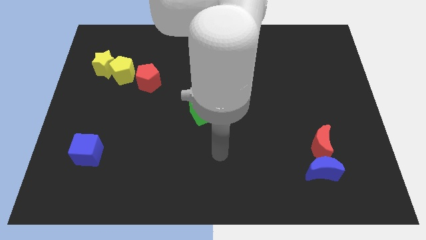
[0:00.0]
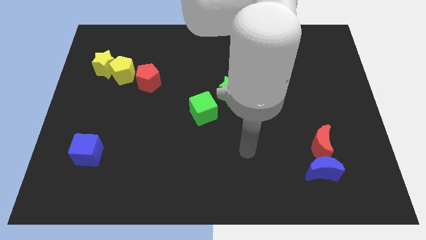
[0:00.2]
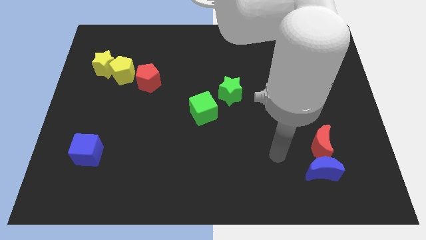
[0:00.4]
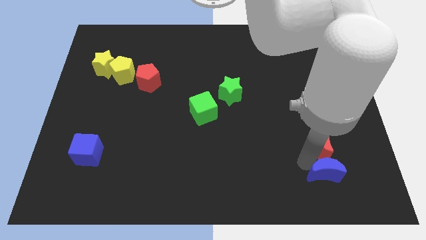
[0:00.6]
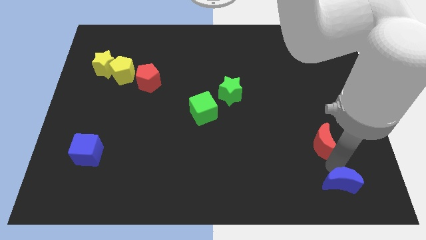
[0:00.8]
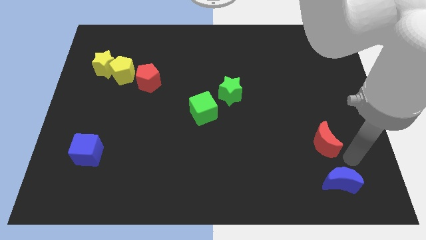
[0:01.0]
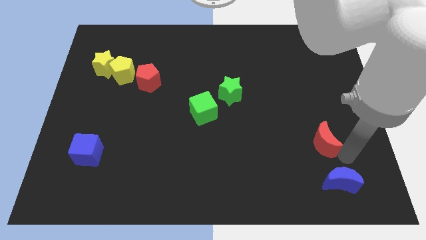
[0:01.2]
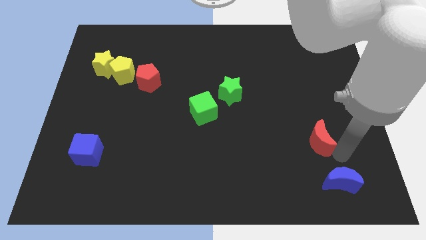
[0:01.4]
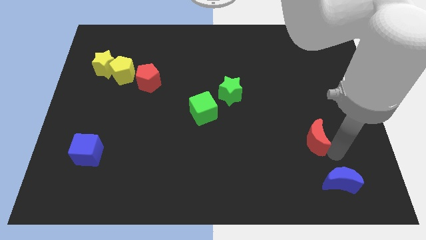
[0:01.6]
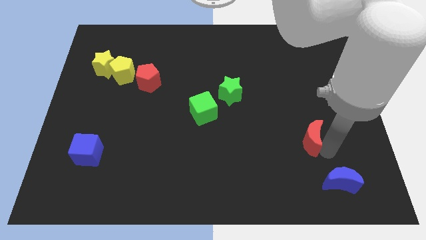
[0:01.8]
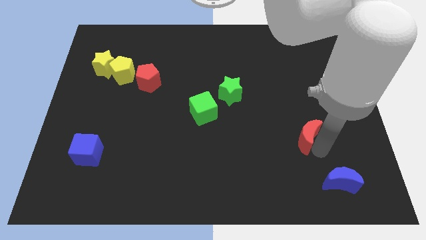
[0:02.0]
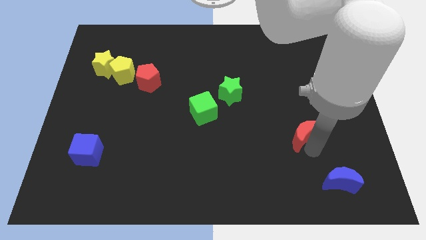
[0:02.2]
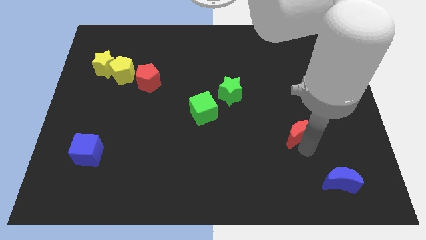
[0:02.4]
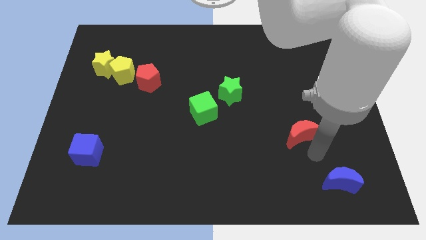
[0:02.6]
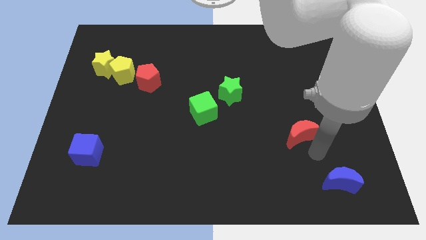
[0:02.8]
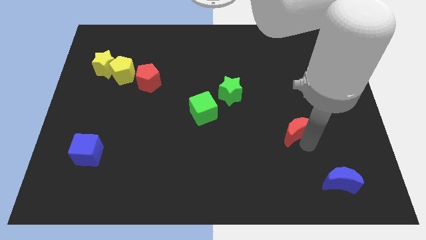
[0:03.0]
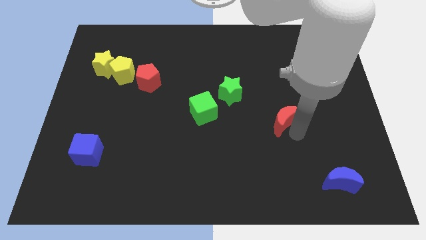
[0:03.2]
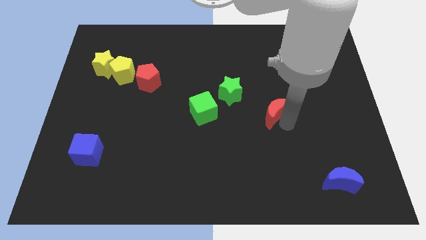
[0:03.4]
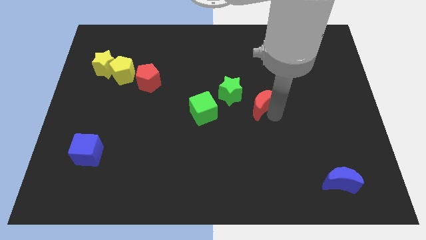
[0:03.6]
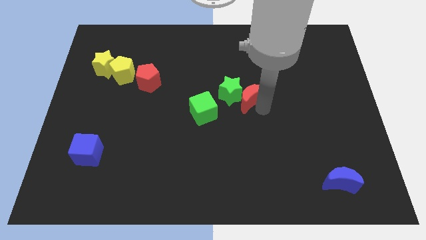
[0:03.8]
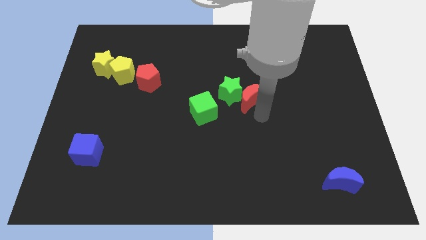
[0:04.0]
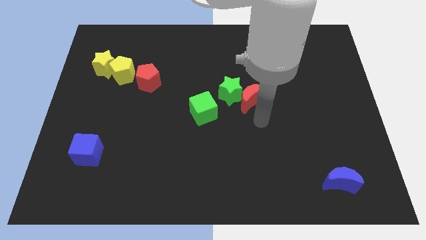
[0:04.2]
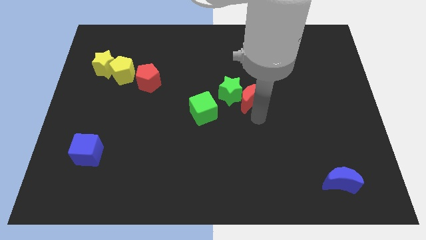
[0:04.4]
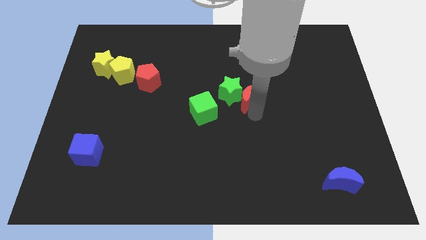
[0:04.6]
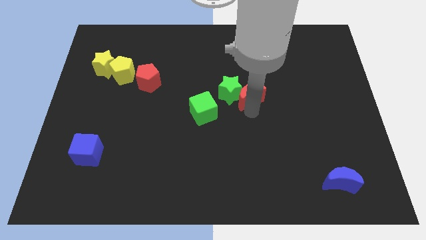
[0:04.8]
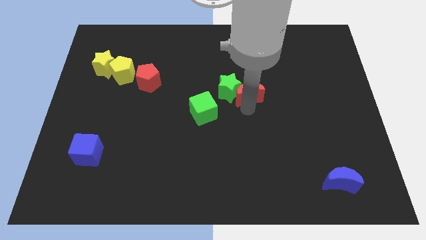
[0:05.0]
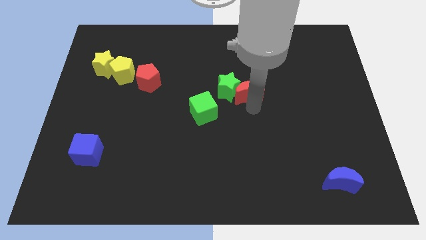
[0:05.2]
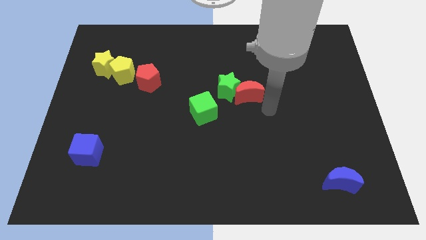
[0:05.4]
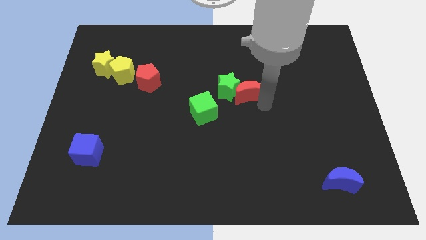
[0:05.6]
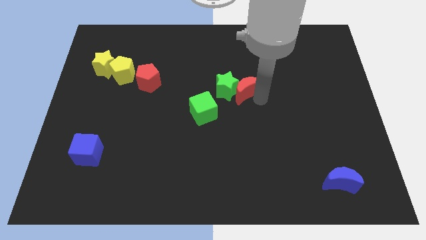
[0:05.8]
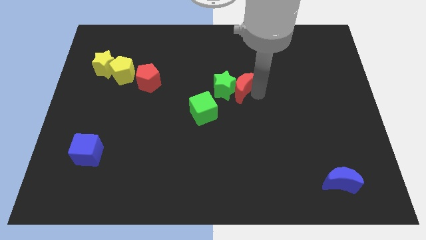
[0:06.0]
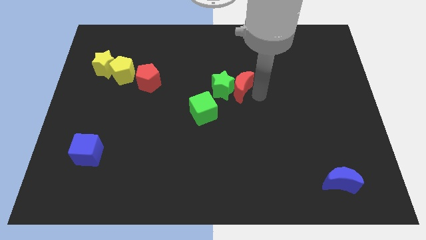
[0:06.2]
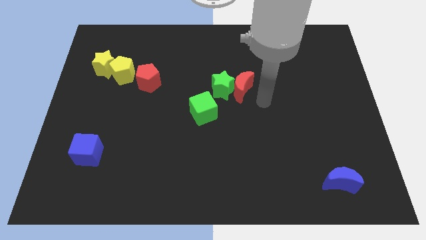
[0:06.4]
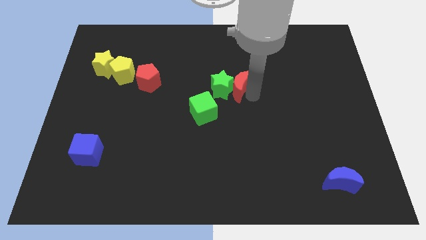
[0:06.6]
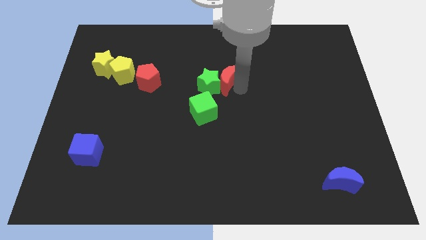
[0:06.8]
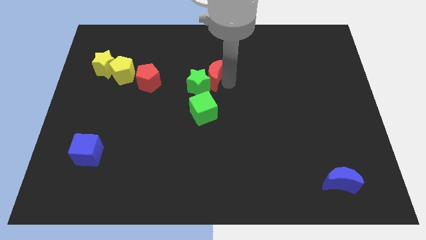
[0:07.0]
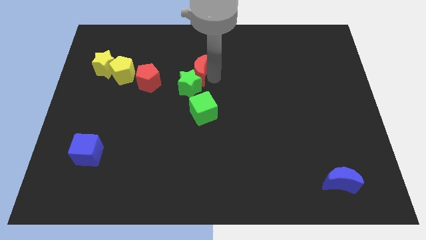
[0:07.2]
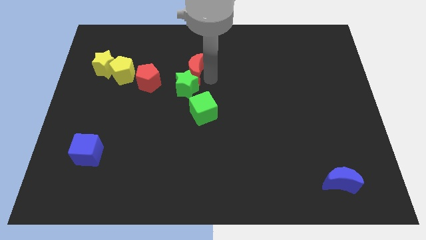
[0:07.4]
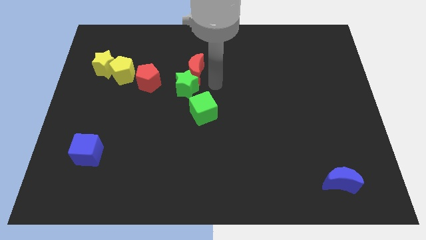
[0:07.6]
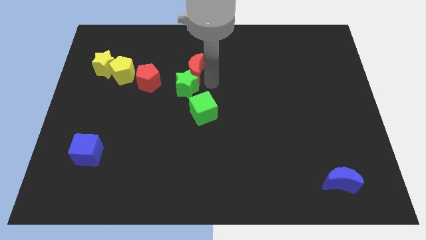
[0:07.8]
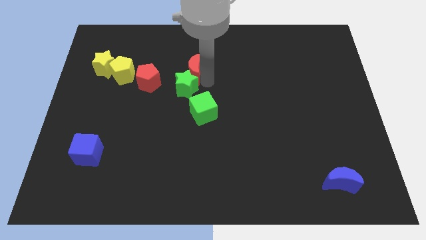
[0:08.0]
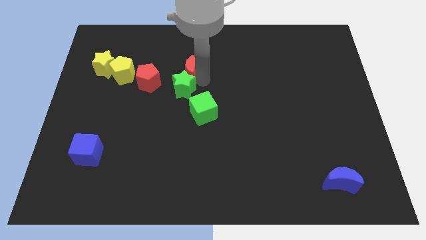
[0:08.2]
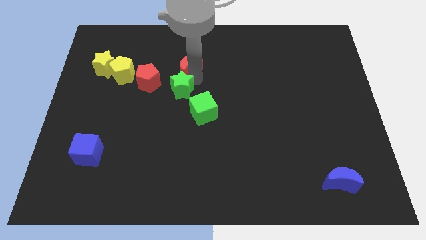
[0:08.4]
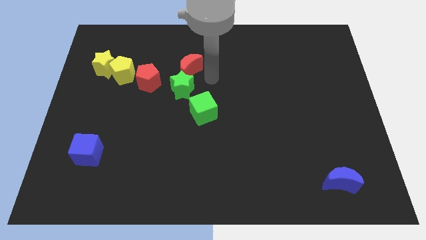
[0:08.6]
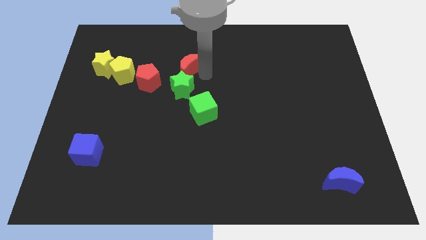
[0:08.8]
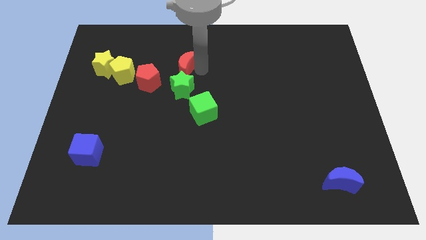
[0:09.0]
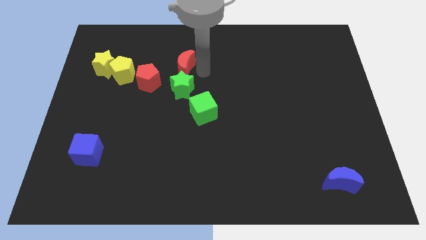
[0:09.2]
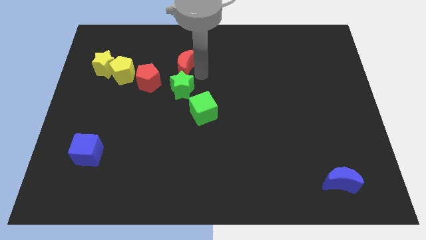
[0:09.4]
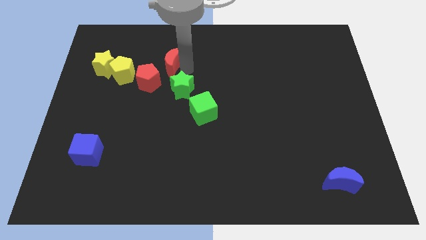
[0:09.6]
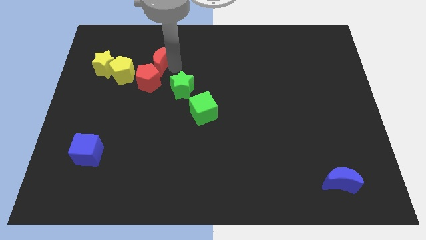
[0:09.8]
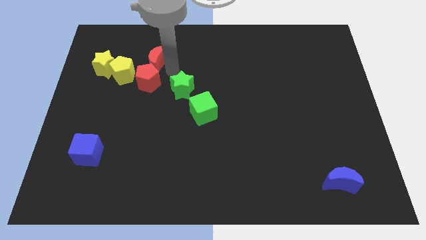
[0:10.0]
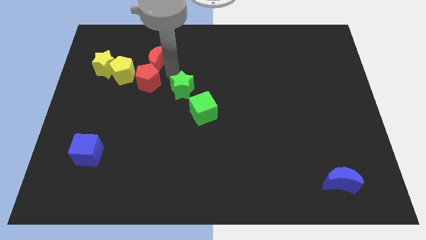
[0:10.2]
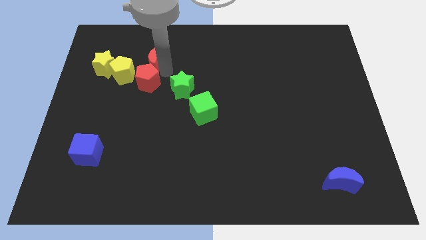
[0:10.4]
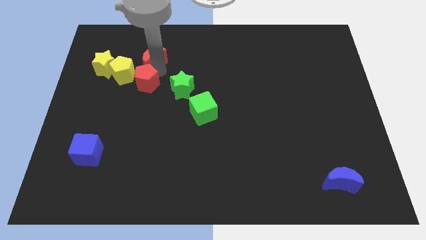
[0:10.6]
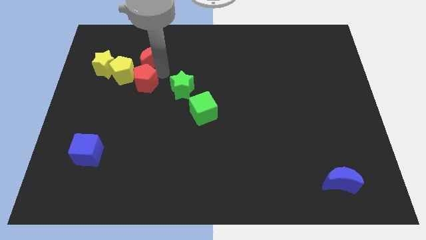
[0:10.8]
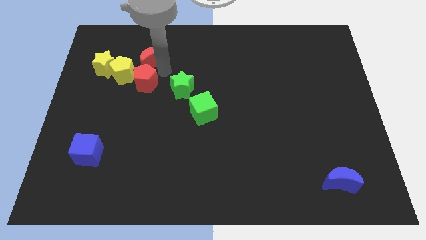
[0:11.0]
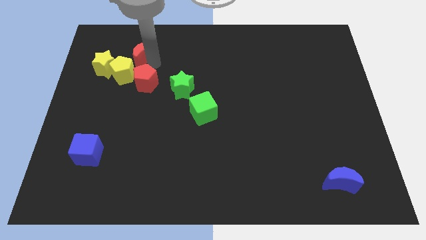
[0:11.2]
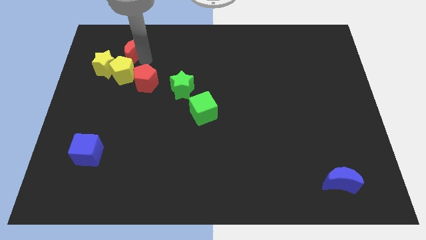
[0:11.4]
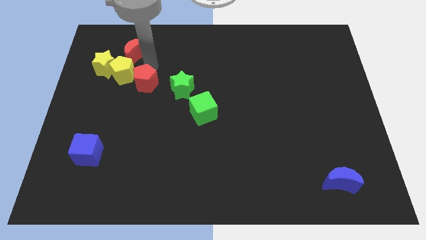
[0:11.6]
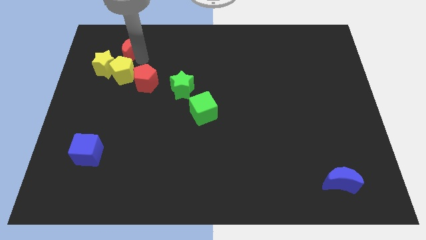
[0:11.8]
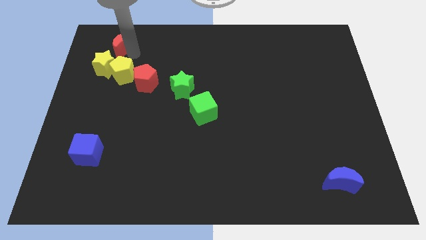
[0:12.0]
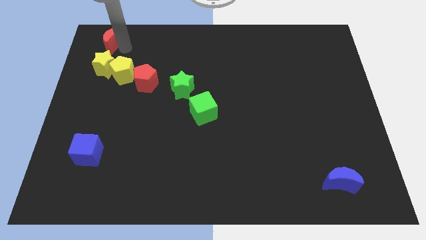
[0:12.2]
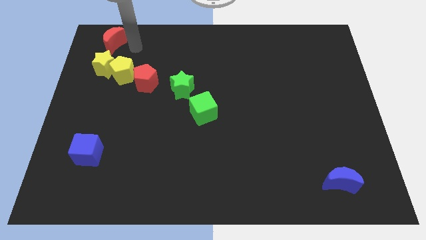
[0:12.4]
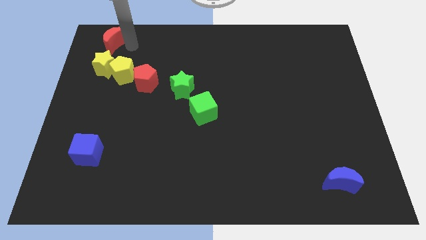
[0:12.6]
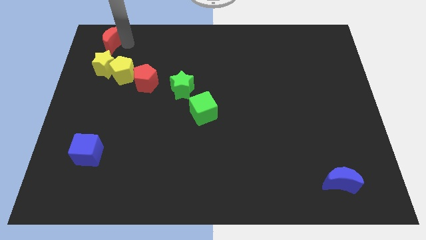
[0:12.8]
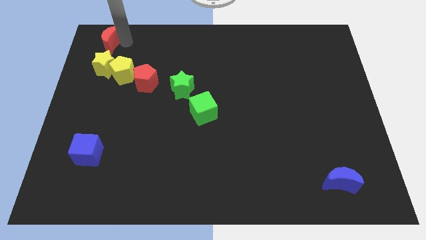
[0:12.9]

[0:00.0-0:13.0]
move the red moon to the upper left corner
